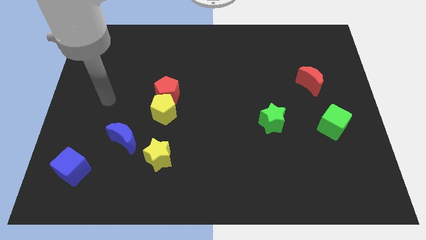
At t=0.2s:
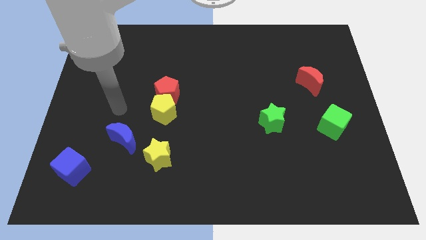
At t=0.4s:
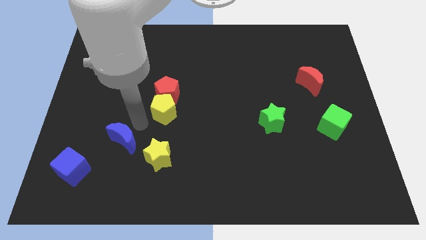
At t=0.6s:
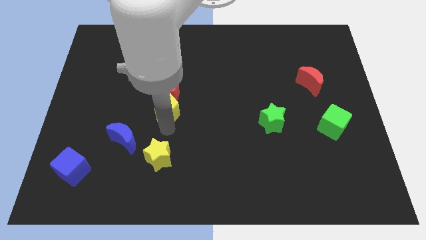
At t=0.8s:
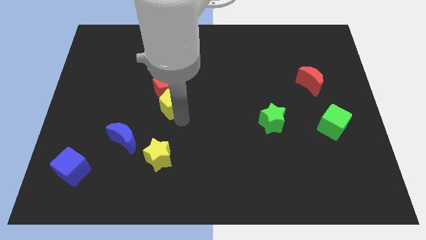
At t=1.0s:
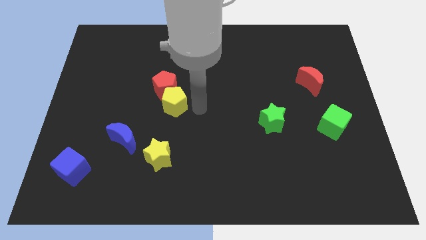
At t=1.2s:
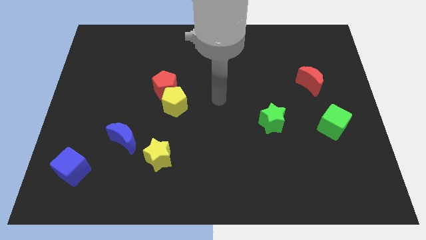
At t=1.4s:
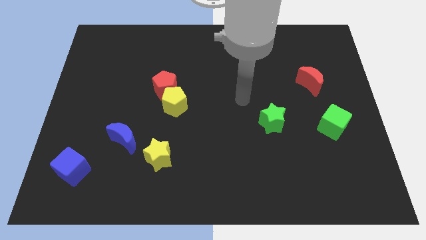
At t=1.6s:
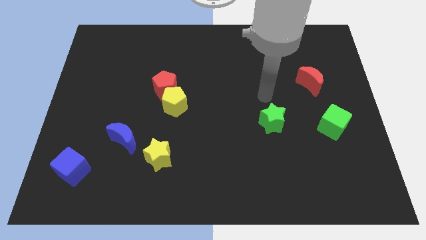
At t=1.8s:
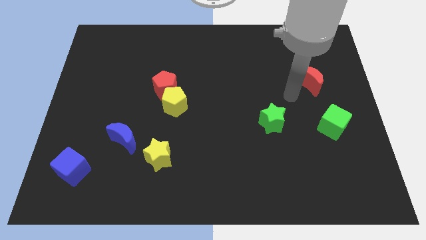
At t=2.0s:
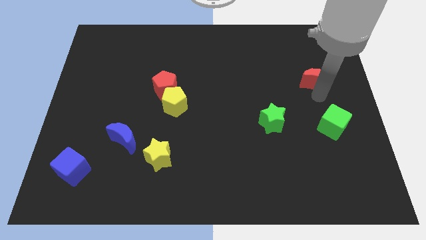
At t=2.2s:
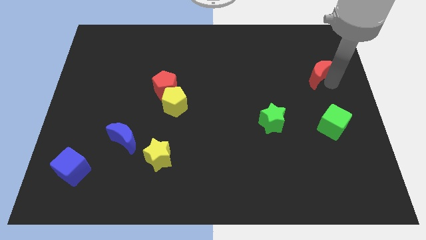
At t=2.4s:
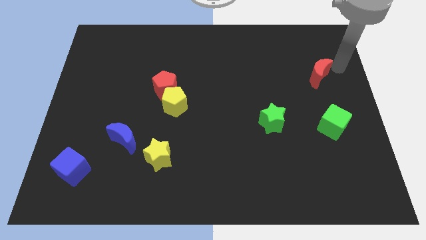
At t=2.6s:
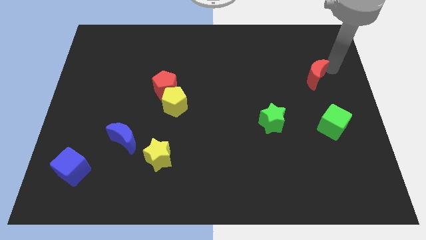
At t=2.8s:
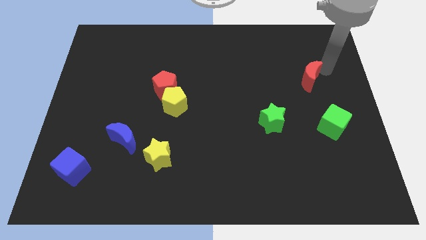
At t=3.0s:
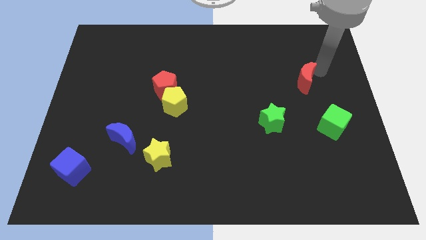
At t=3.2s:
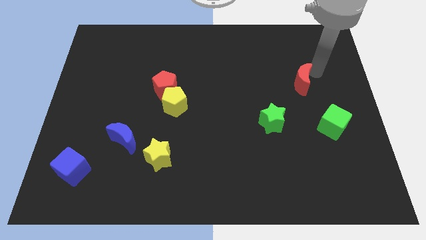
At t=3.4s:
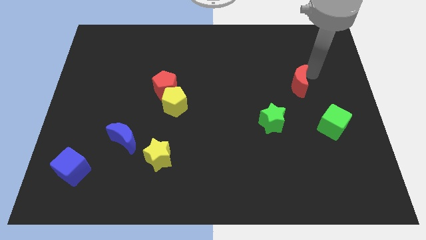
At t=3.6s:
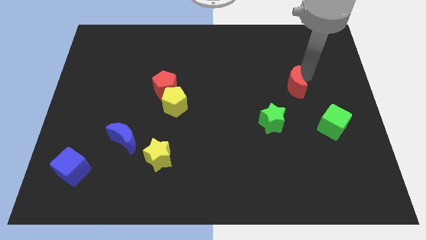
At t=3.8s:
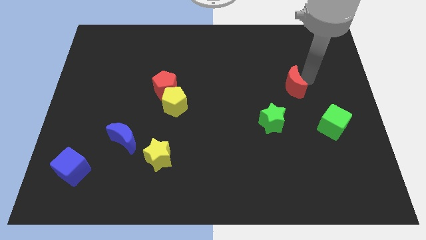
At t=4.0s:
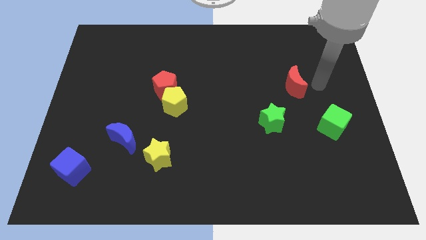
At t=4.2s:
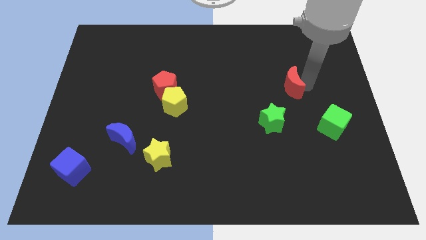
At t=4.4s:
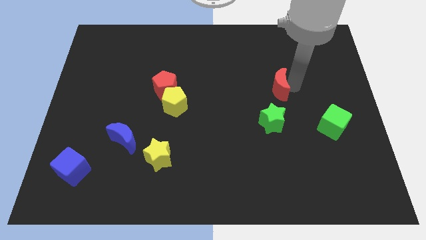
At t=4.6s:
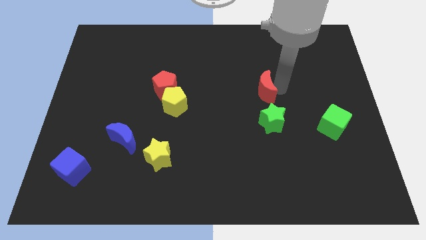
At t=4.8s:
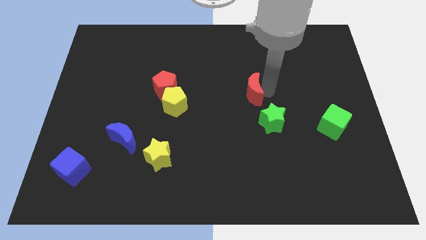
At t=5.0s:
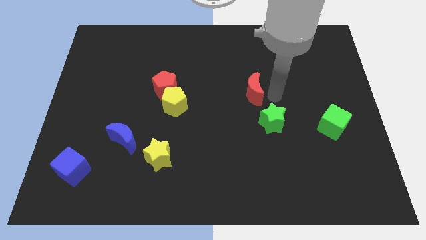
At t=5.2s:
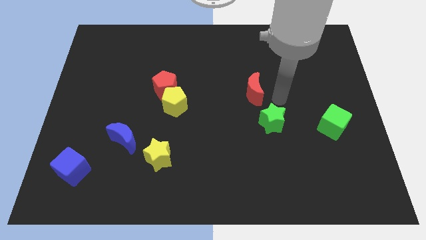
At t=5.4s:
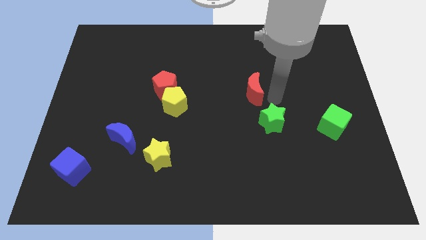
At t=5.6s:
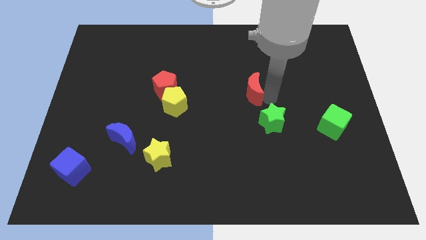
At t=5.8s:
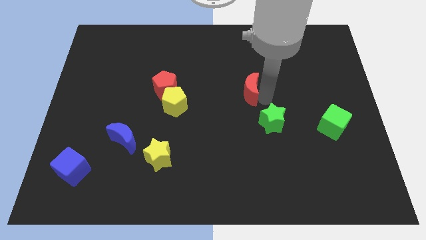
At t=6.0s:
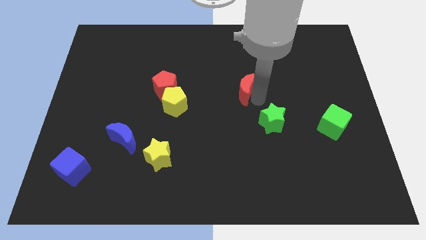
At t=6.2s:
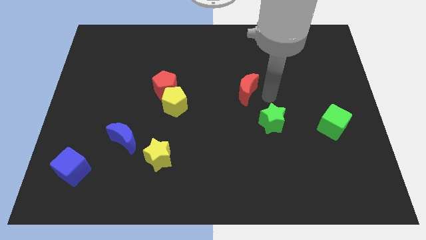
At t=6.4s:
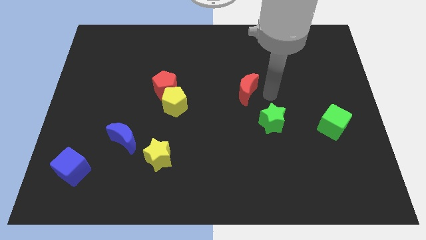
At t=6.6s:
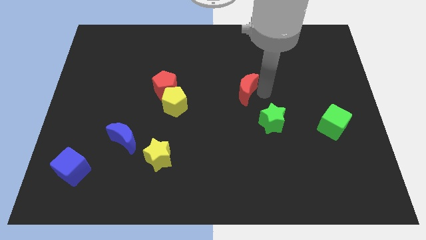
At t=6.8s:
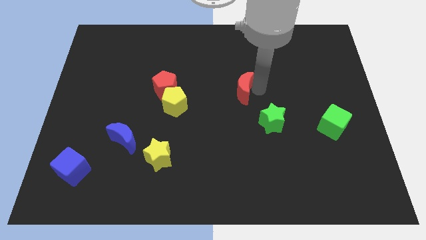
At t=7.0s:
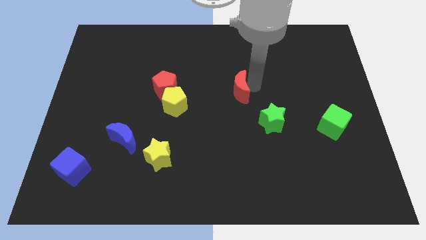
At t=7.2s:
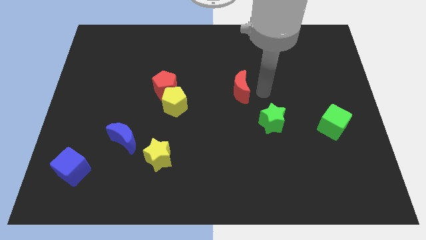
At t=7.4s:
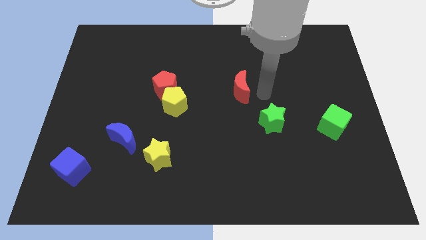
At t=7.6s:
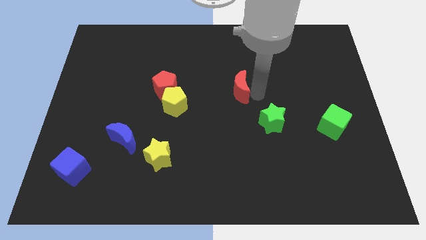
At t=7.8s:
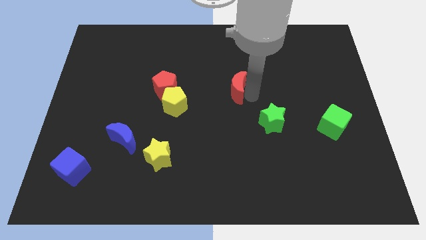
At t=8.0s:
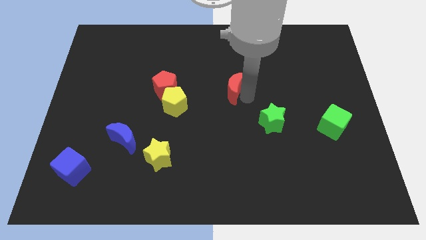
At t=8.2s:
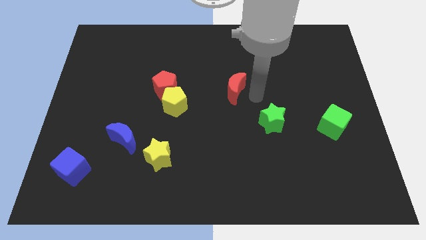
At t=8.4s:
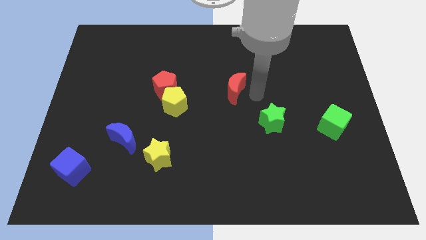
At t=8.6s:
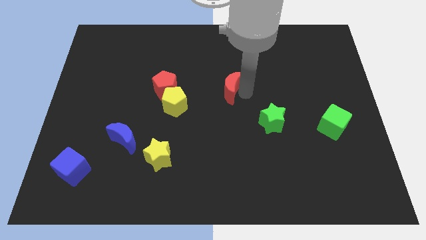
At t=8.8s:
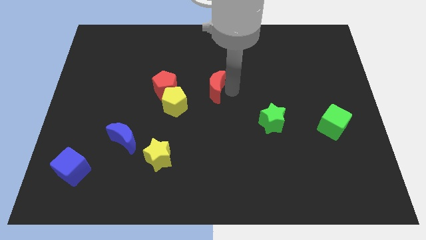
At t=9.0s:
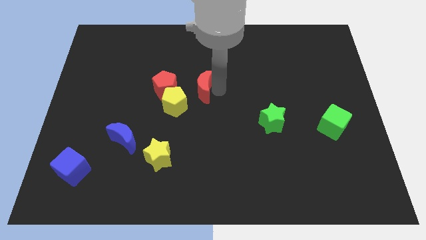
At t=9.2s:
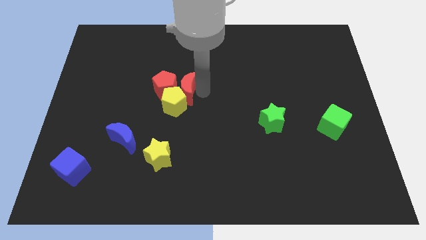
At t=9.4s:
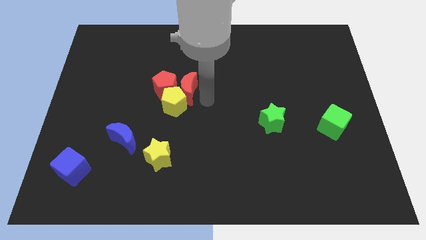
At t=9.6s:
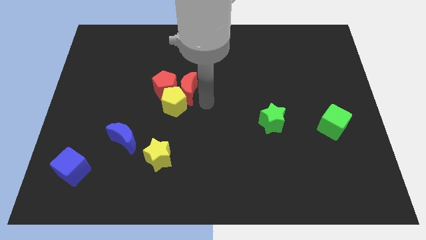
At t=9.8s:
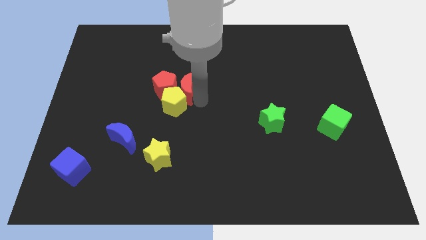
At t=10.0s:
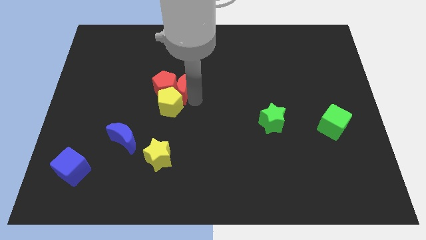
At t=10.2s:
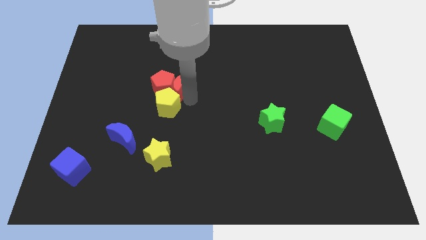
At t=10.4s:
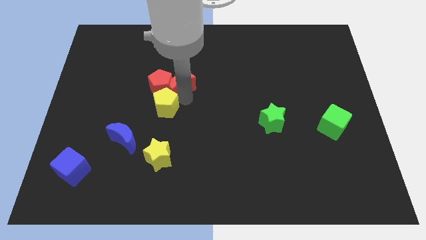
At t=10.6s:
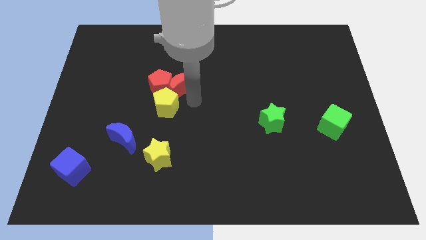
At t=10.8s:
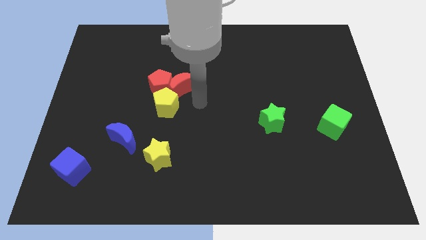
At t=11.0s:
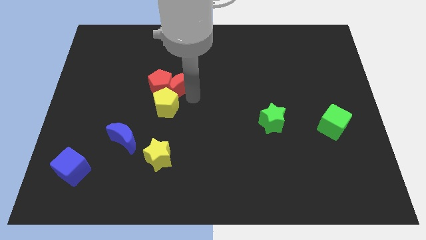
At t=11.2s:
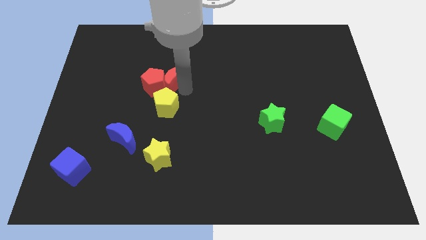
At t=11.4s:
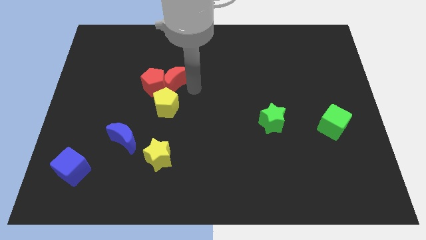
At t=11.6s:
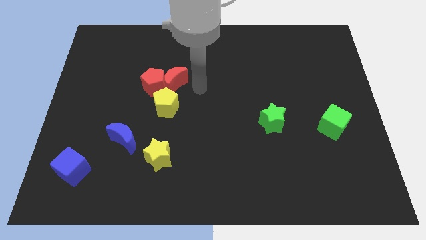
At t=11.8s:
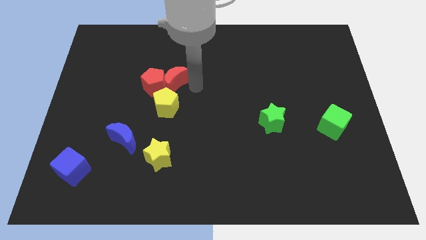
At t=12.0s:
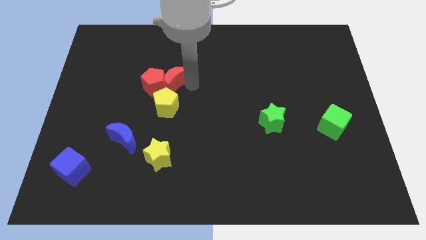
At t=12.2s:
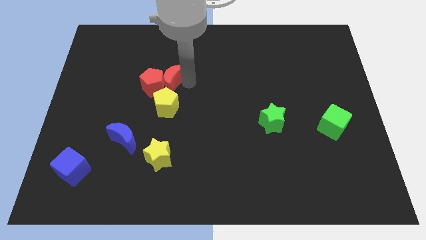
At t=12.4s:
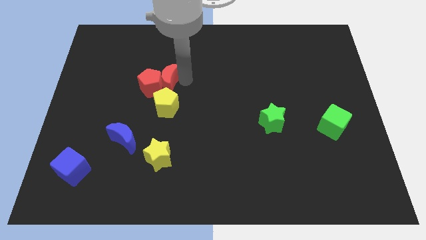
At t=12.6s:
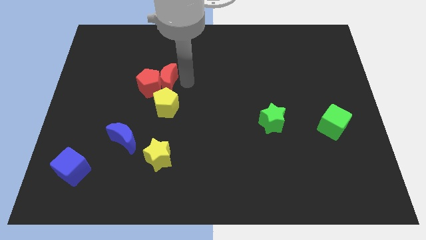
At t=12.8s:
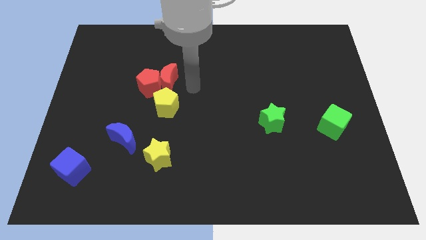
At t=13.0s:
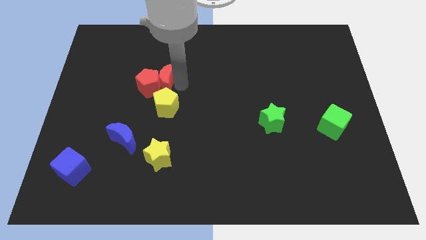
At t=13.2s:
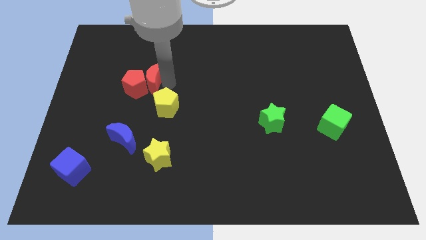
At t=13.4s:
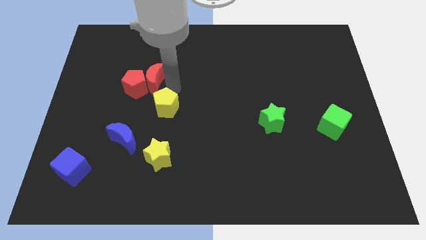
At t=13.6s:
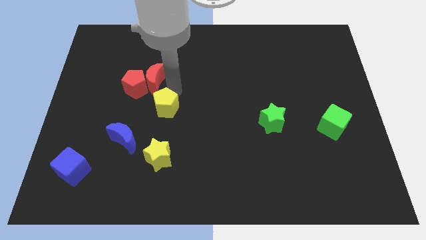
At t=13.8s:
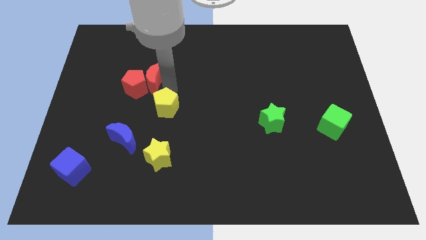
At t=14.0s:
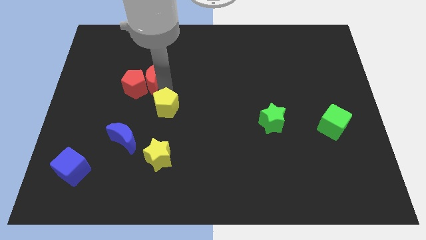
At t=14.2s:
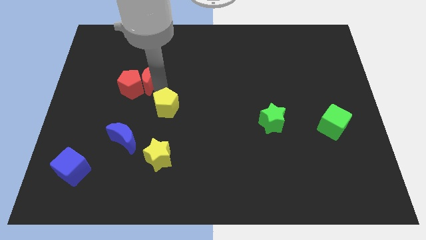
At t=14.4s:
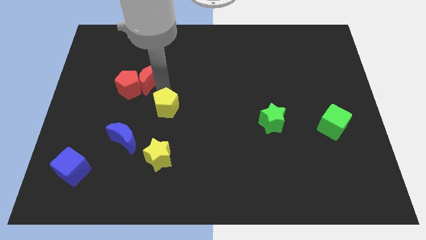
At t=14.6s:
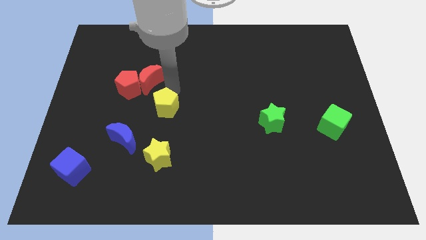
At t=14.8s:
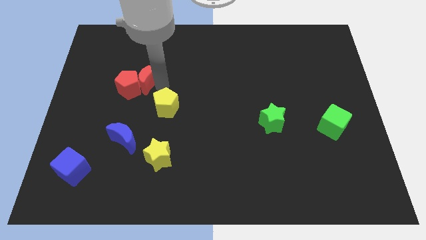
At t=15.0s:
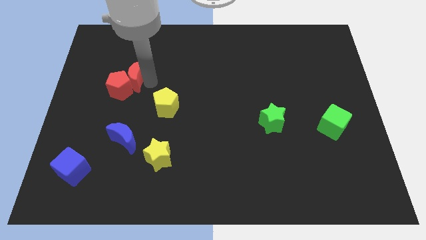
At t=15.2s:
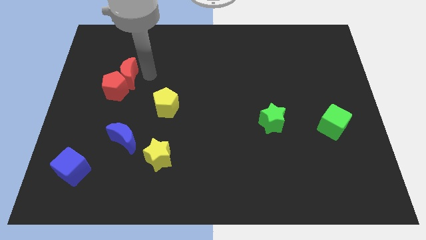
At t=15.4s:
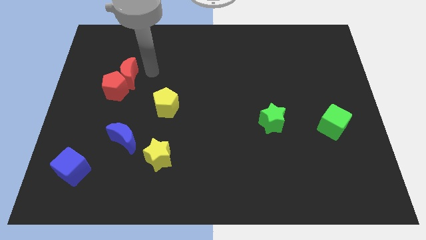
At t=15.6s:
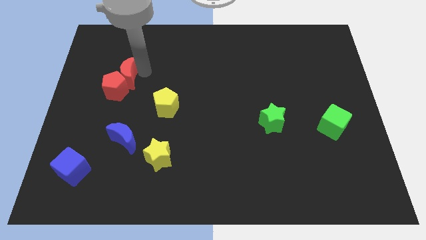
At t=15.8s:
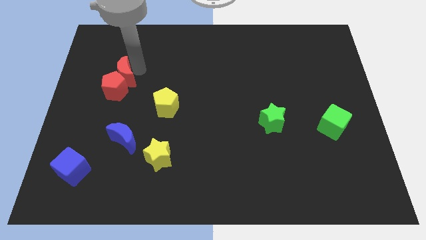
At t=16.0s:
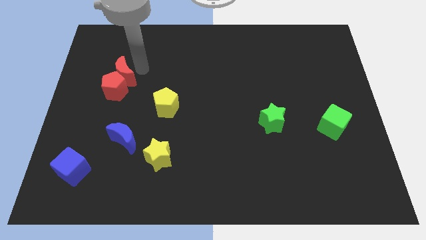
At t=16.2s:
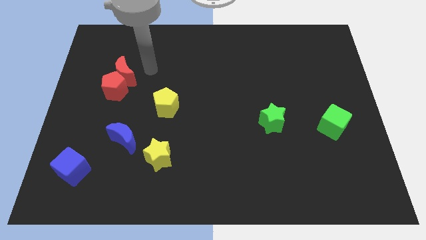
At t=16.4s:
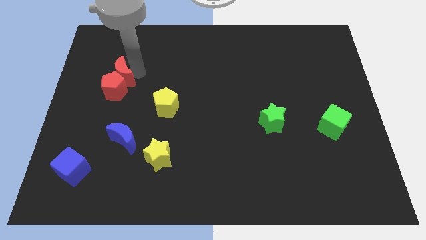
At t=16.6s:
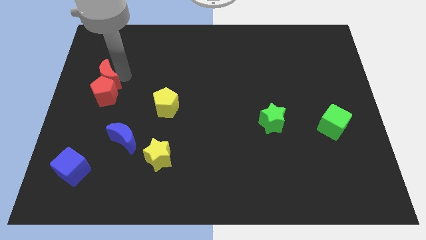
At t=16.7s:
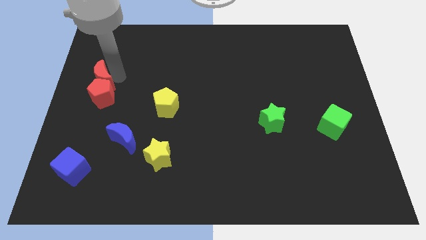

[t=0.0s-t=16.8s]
move the red moon to the left side of the board
